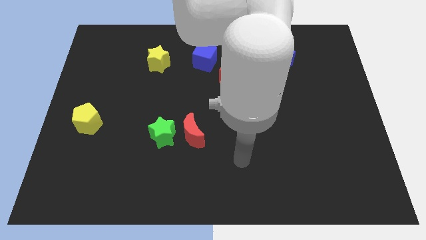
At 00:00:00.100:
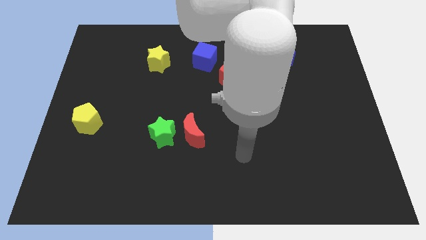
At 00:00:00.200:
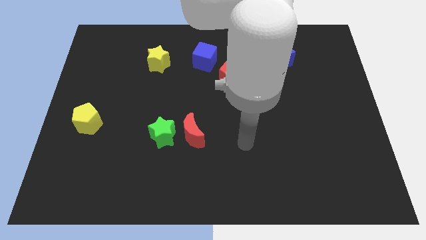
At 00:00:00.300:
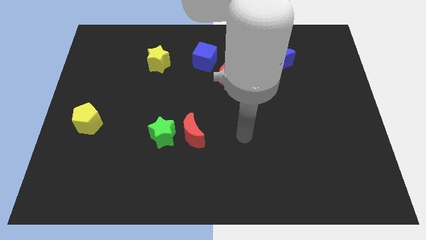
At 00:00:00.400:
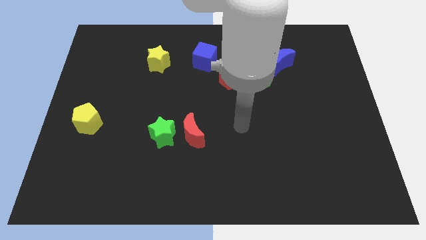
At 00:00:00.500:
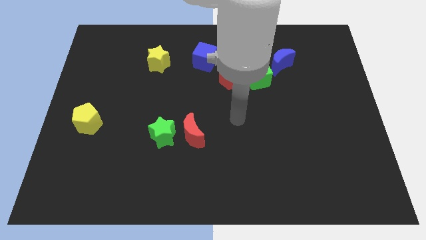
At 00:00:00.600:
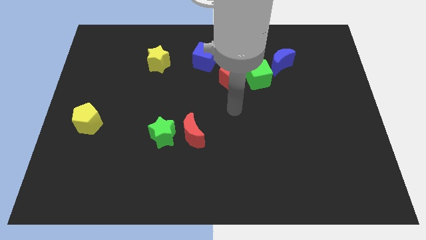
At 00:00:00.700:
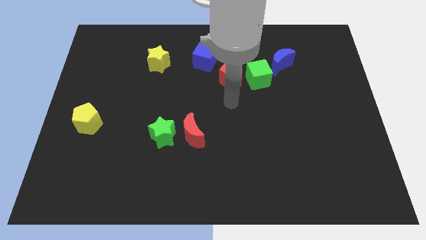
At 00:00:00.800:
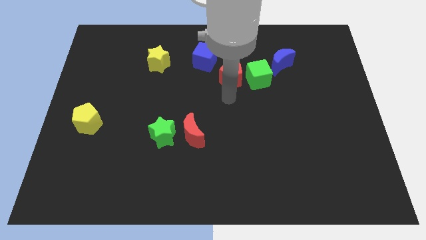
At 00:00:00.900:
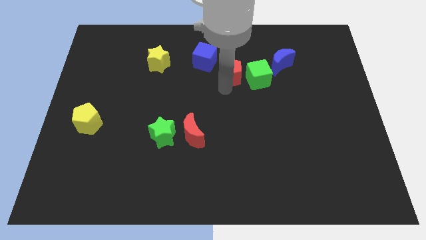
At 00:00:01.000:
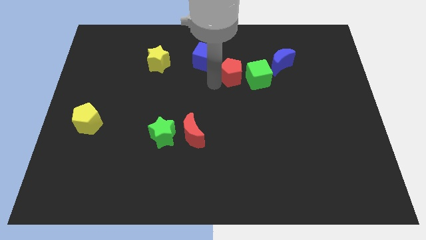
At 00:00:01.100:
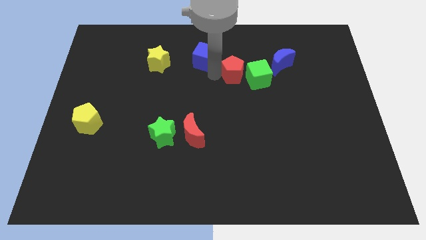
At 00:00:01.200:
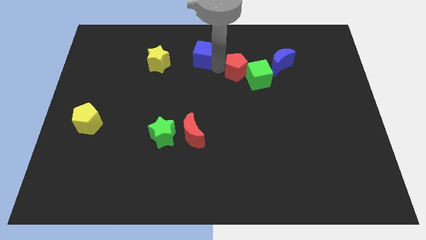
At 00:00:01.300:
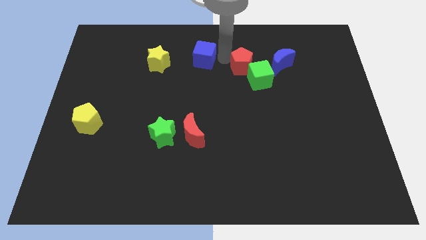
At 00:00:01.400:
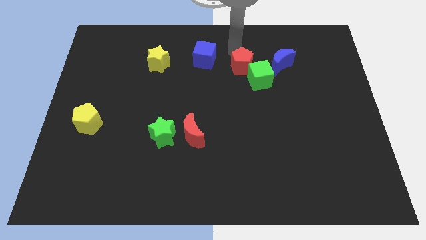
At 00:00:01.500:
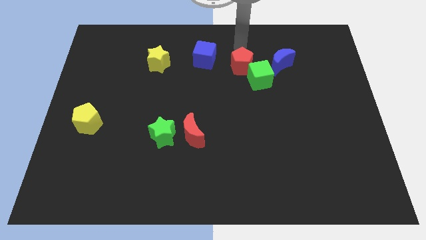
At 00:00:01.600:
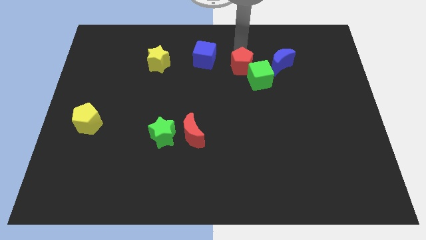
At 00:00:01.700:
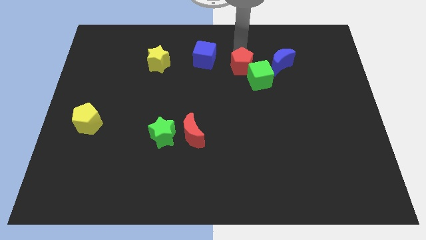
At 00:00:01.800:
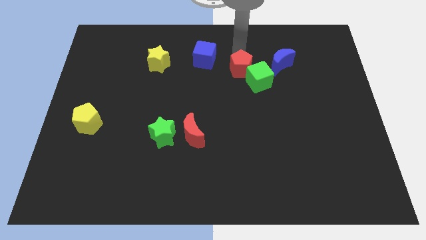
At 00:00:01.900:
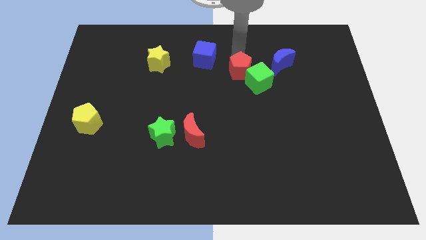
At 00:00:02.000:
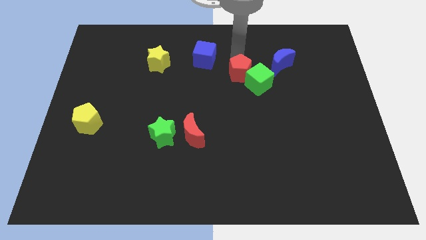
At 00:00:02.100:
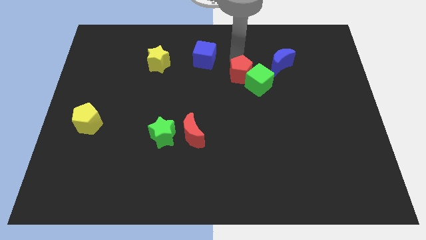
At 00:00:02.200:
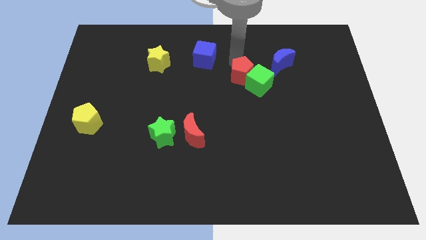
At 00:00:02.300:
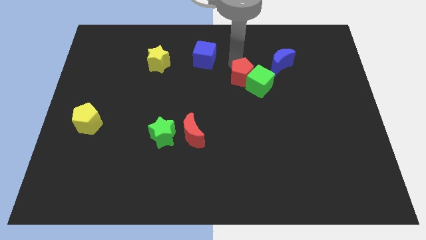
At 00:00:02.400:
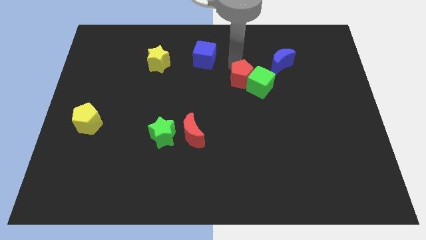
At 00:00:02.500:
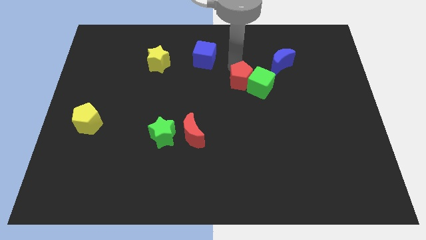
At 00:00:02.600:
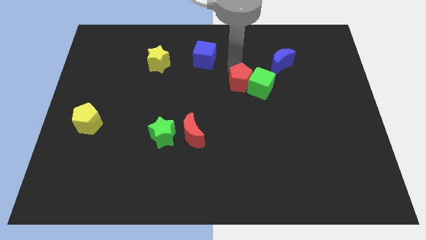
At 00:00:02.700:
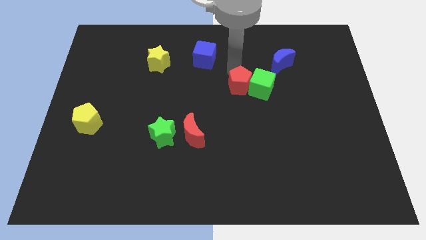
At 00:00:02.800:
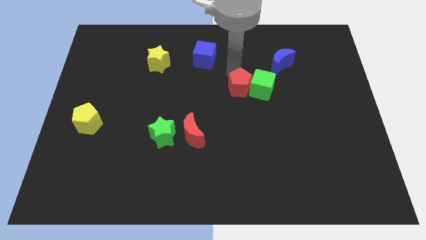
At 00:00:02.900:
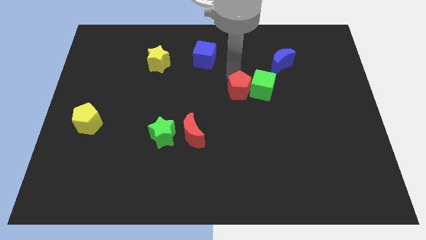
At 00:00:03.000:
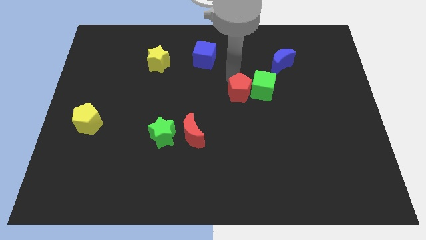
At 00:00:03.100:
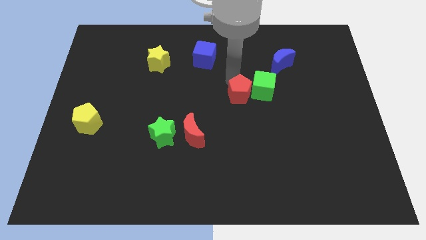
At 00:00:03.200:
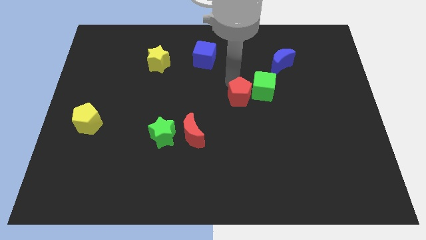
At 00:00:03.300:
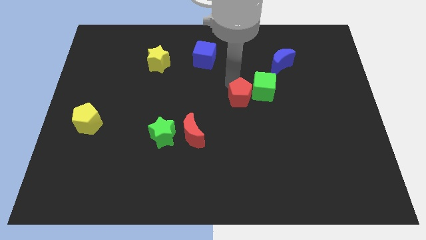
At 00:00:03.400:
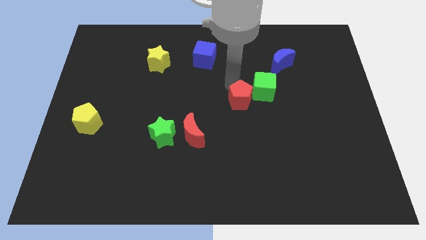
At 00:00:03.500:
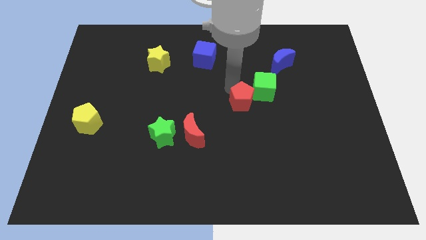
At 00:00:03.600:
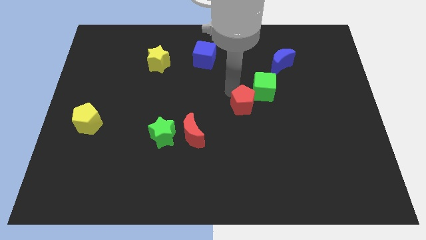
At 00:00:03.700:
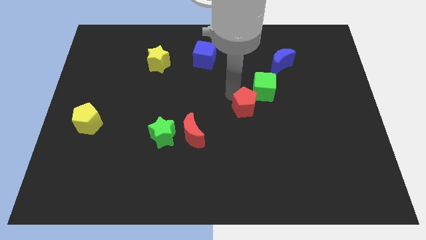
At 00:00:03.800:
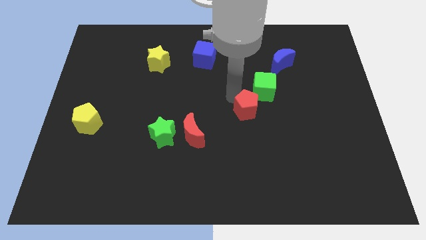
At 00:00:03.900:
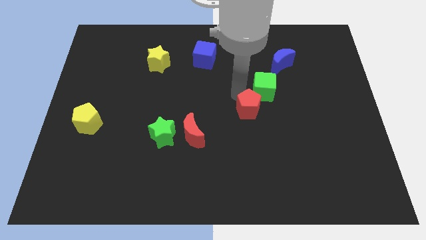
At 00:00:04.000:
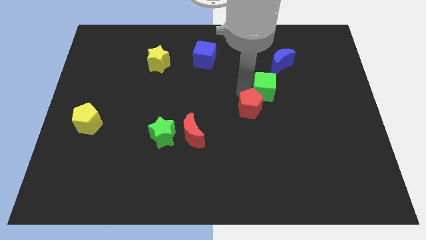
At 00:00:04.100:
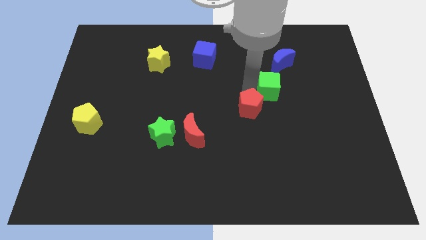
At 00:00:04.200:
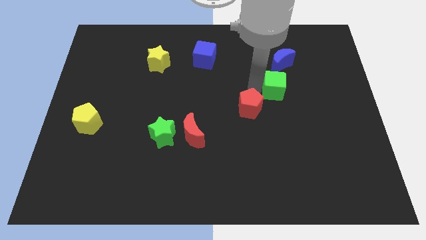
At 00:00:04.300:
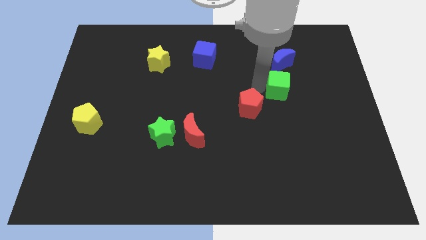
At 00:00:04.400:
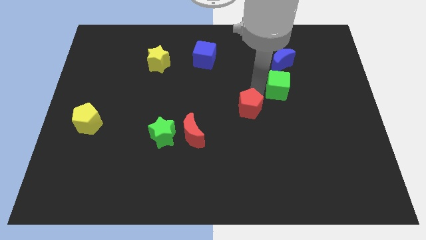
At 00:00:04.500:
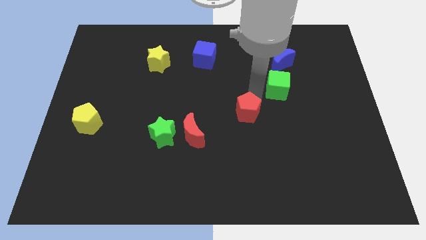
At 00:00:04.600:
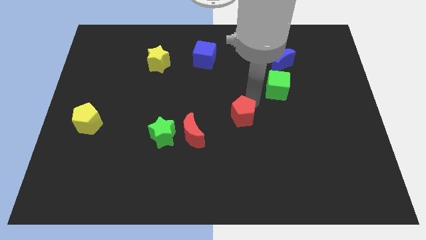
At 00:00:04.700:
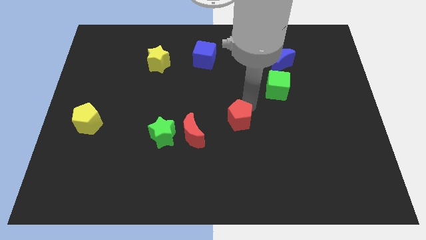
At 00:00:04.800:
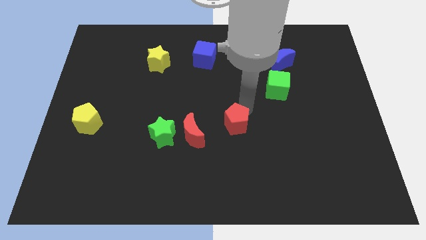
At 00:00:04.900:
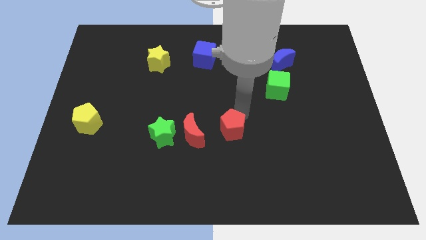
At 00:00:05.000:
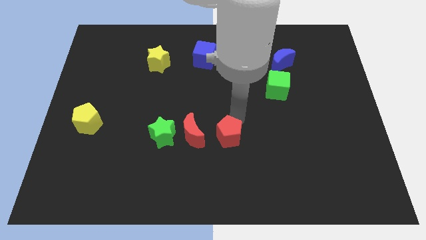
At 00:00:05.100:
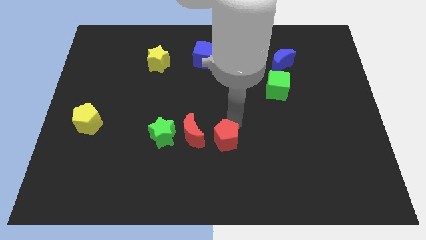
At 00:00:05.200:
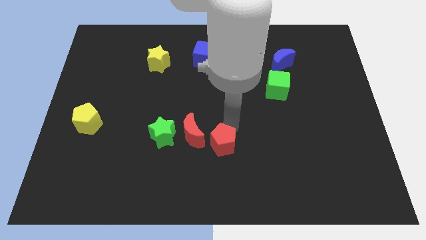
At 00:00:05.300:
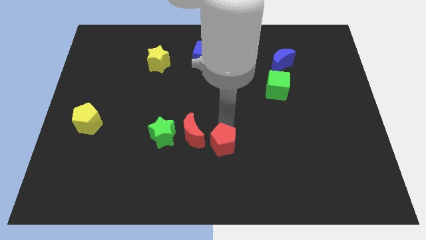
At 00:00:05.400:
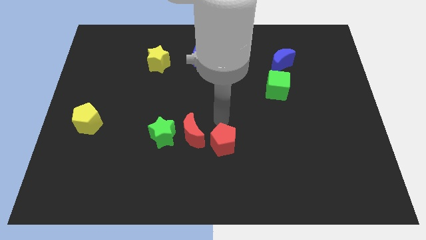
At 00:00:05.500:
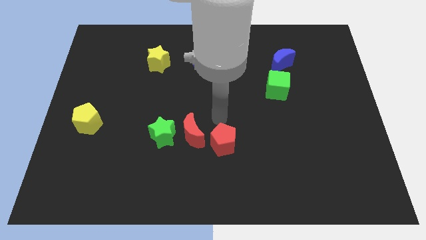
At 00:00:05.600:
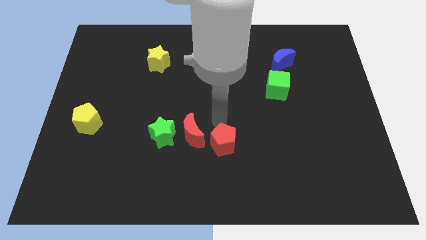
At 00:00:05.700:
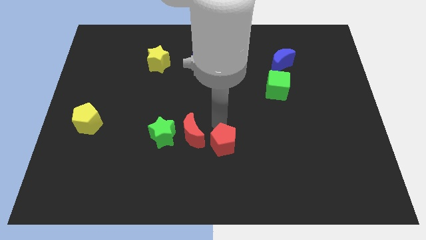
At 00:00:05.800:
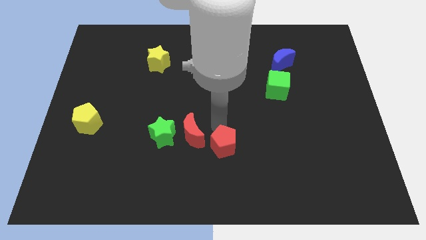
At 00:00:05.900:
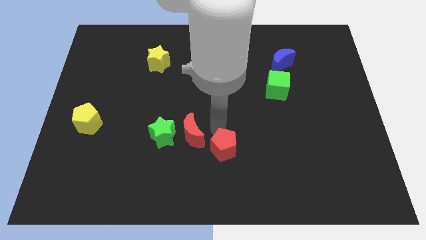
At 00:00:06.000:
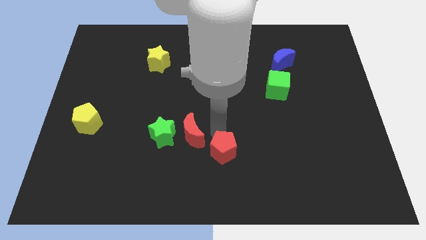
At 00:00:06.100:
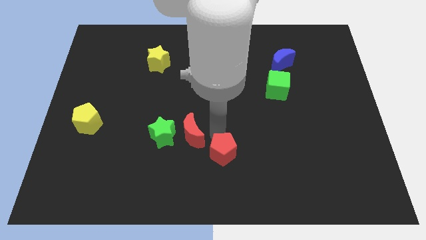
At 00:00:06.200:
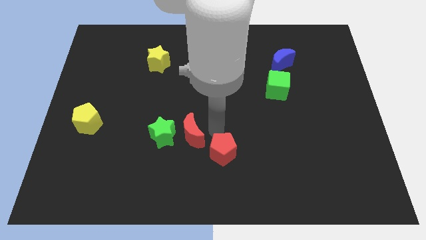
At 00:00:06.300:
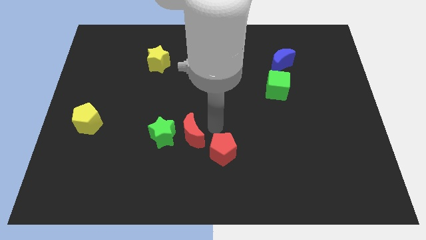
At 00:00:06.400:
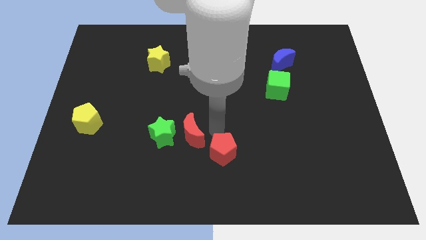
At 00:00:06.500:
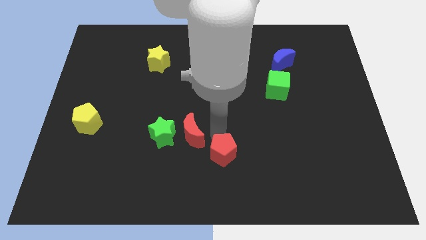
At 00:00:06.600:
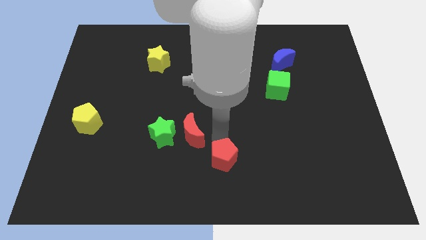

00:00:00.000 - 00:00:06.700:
push the red pentagon to the bottom

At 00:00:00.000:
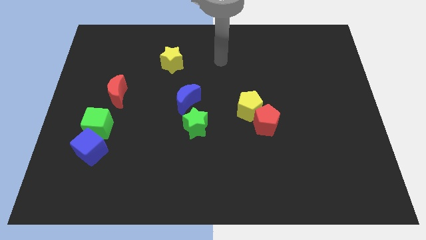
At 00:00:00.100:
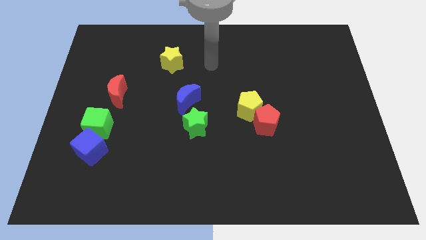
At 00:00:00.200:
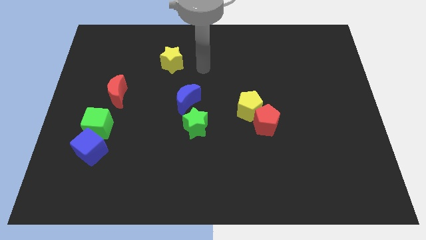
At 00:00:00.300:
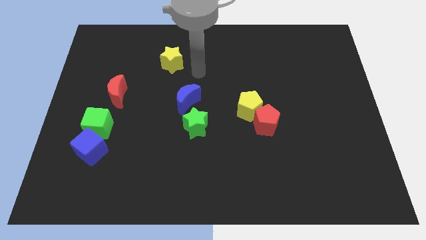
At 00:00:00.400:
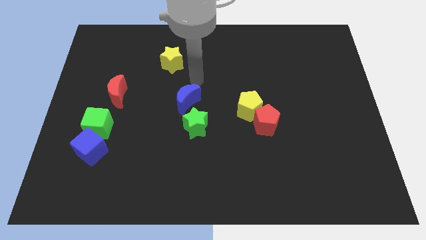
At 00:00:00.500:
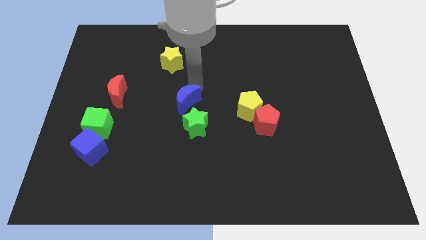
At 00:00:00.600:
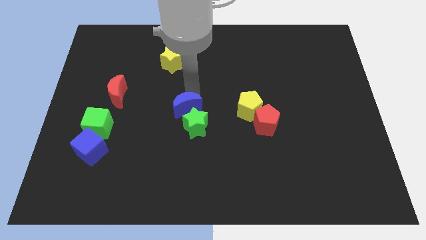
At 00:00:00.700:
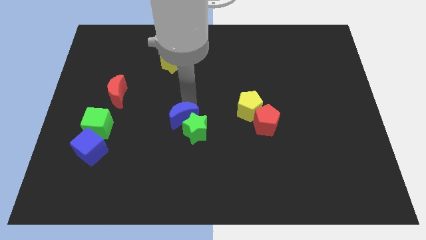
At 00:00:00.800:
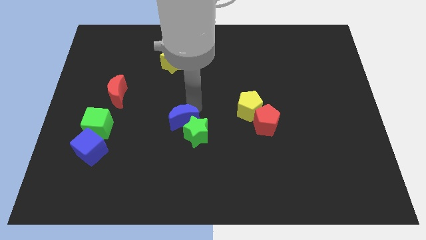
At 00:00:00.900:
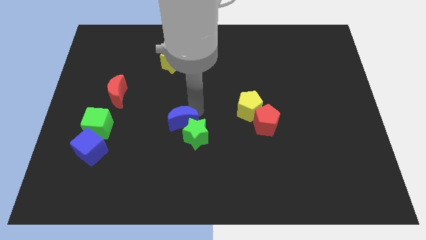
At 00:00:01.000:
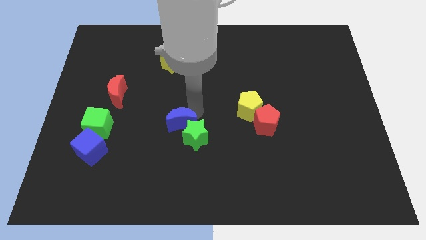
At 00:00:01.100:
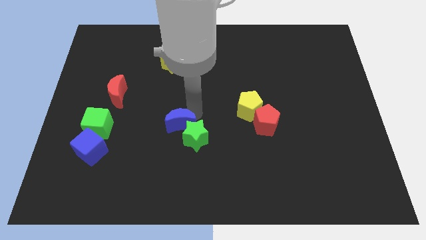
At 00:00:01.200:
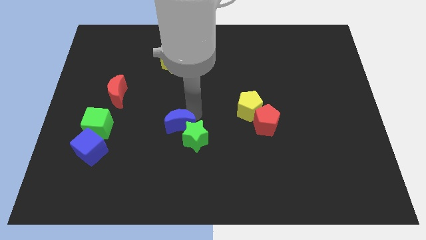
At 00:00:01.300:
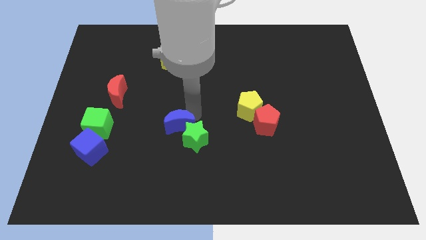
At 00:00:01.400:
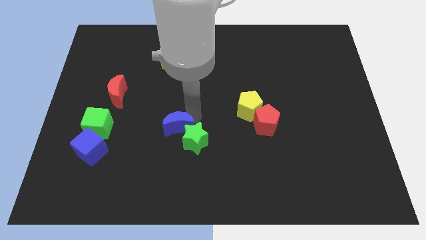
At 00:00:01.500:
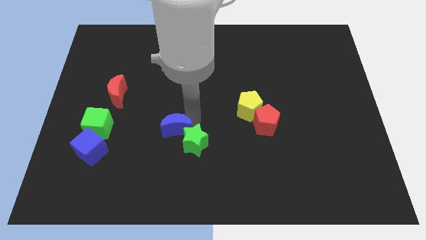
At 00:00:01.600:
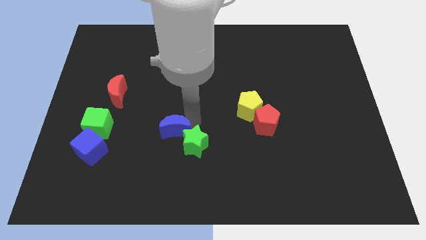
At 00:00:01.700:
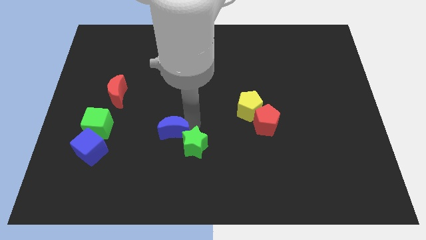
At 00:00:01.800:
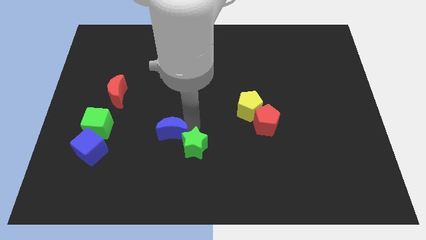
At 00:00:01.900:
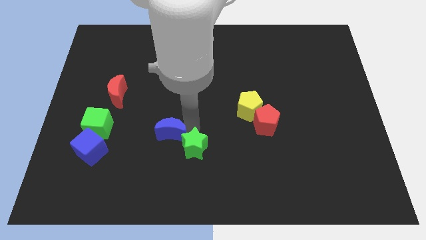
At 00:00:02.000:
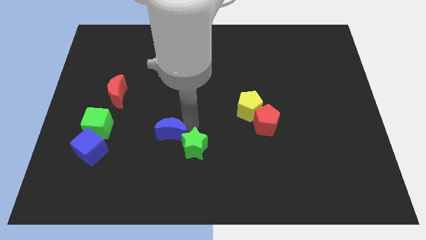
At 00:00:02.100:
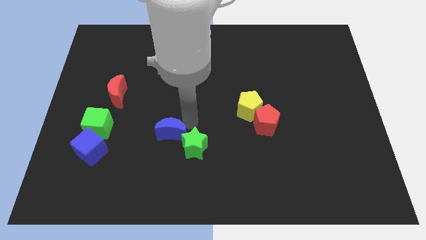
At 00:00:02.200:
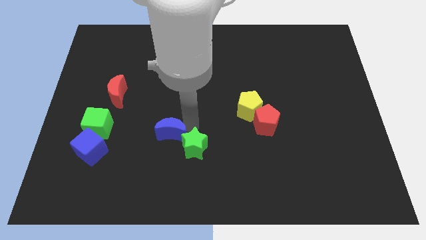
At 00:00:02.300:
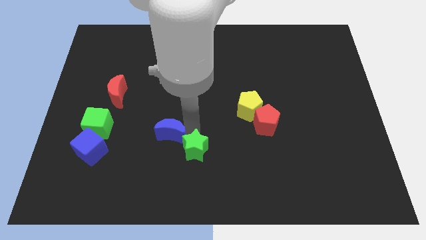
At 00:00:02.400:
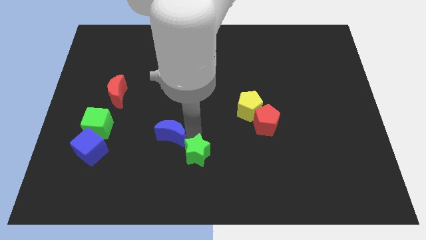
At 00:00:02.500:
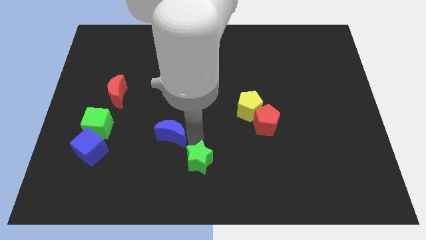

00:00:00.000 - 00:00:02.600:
move the green star to the bottom
